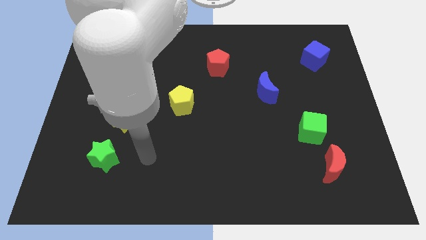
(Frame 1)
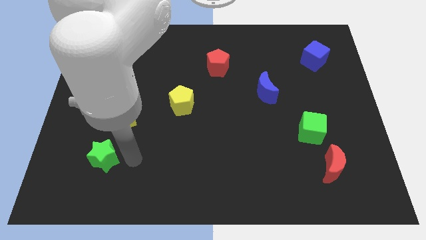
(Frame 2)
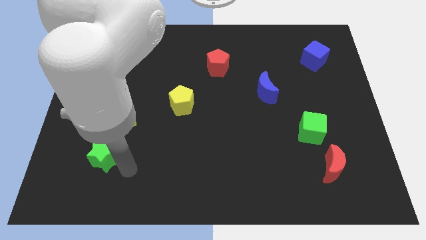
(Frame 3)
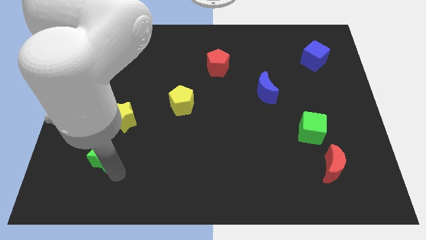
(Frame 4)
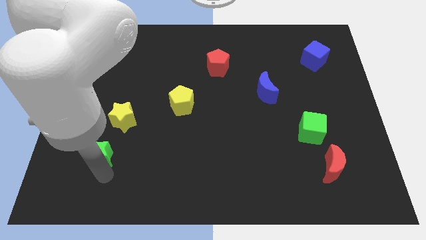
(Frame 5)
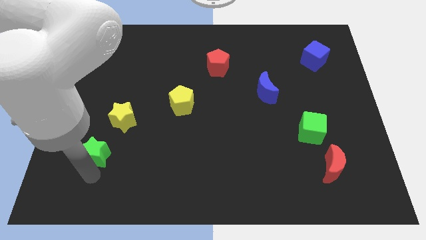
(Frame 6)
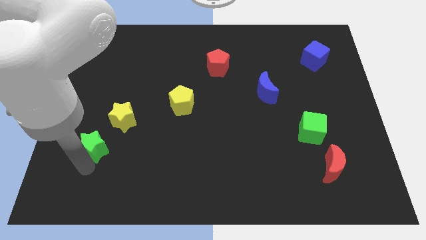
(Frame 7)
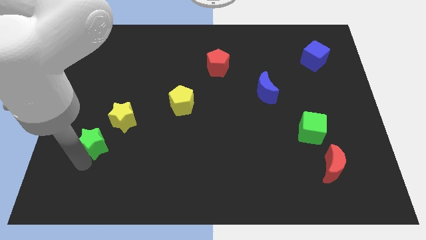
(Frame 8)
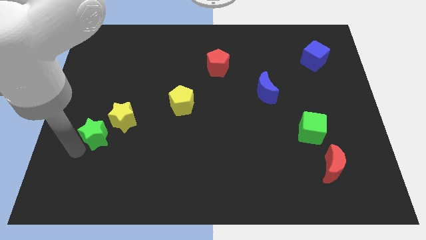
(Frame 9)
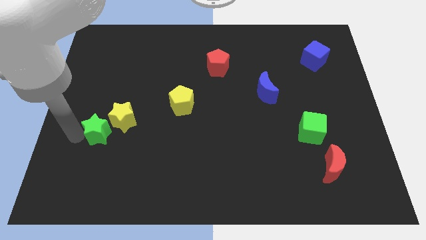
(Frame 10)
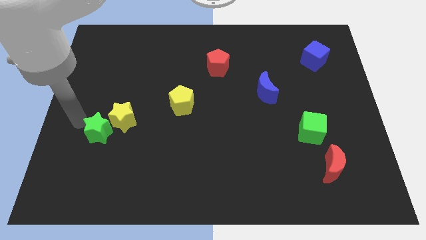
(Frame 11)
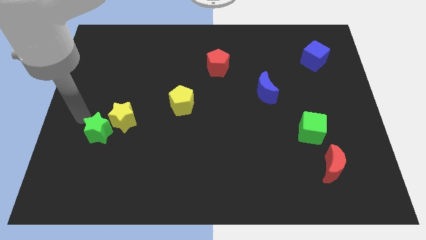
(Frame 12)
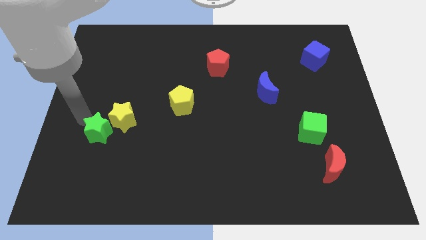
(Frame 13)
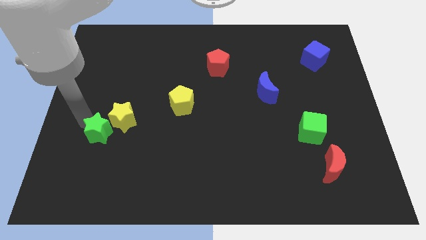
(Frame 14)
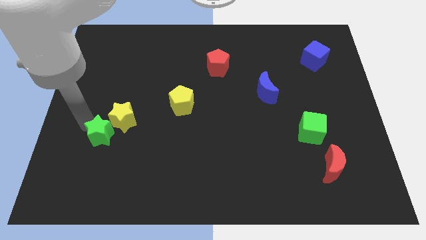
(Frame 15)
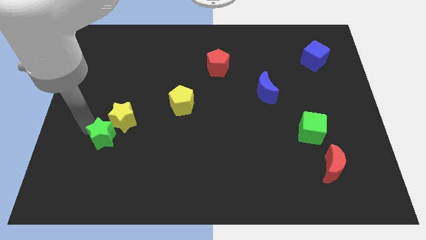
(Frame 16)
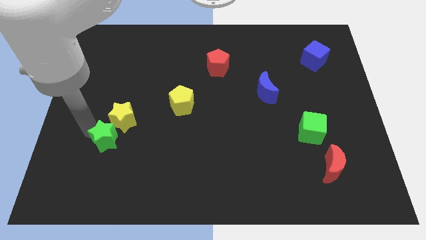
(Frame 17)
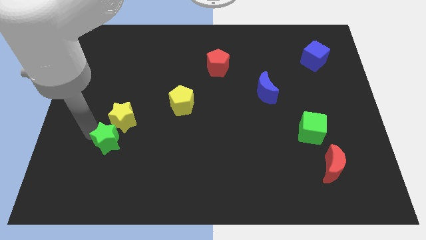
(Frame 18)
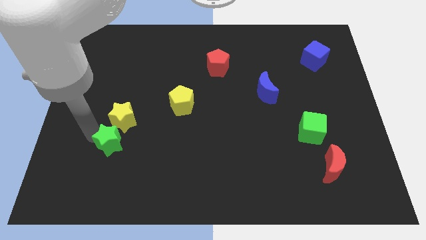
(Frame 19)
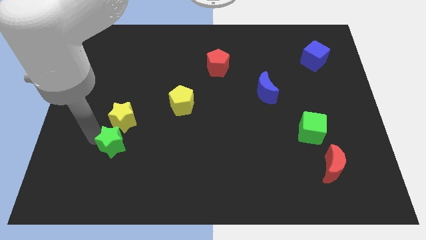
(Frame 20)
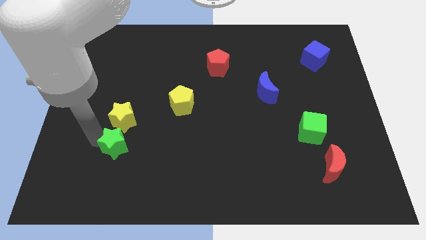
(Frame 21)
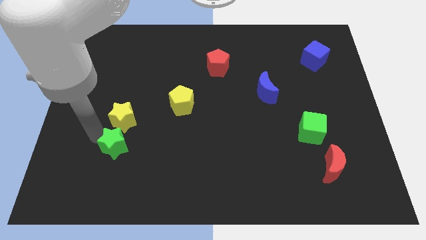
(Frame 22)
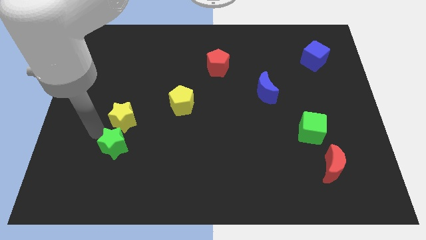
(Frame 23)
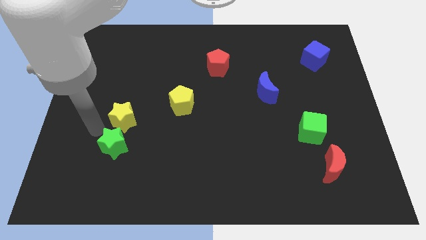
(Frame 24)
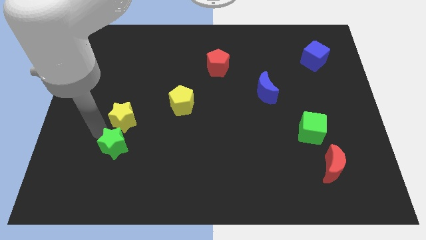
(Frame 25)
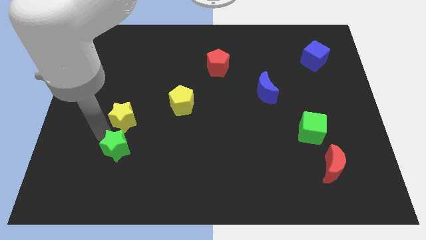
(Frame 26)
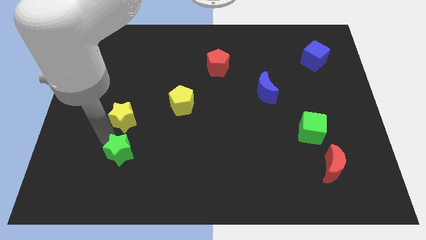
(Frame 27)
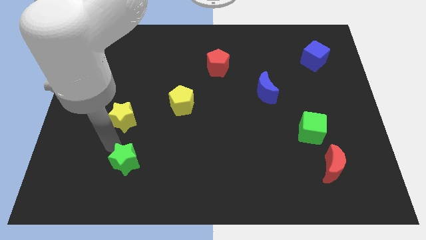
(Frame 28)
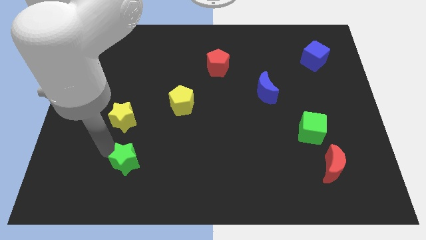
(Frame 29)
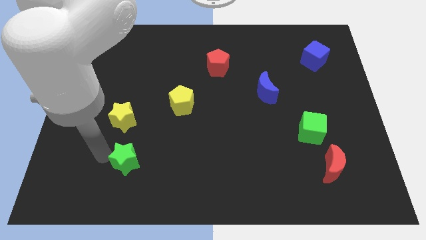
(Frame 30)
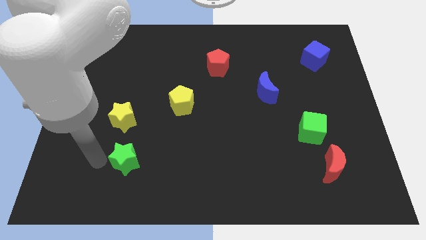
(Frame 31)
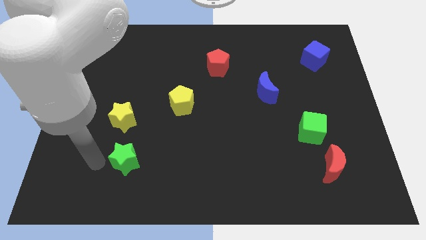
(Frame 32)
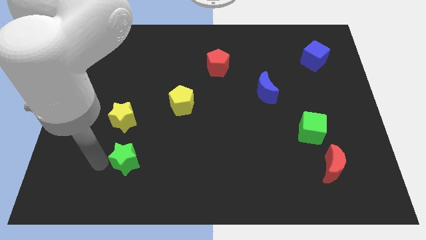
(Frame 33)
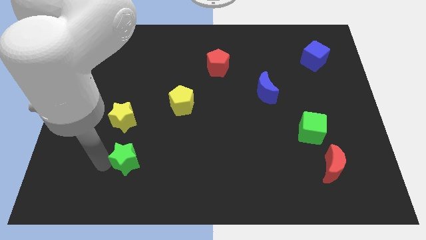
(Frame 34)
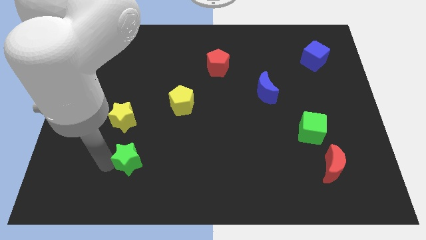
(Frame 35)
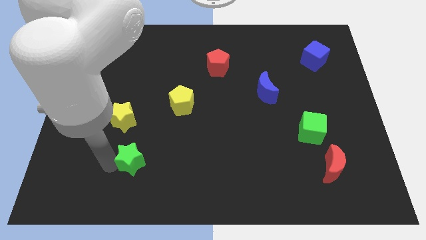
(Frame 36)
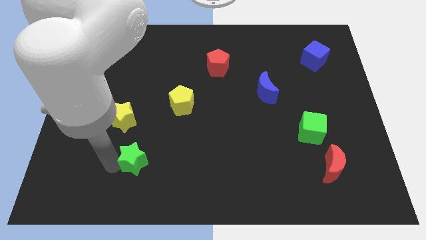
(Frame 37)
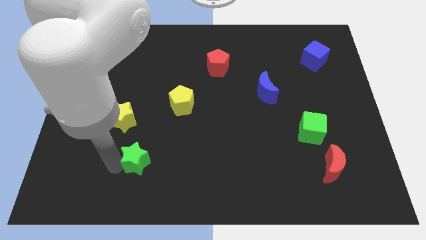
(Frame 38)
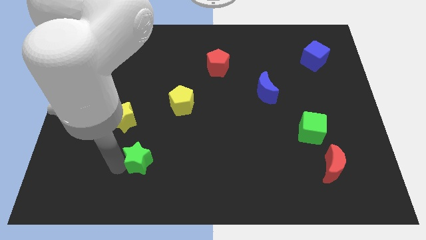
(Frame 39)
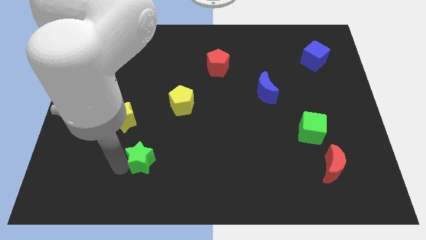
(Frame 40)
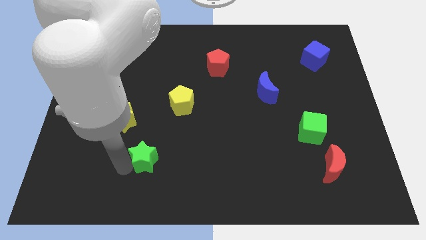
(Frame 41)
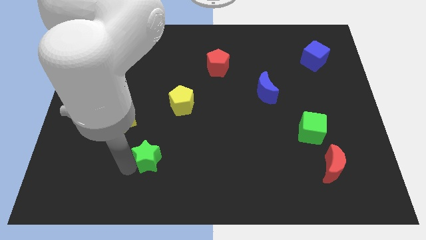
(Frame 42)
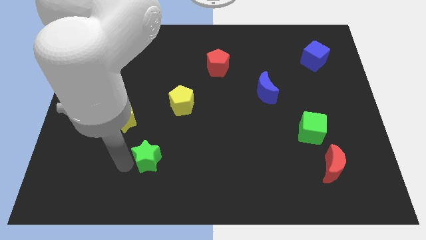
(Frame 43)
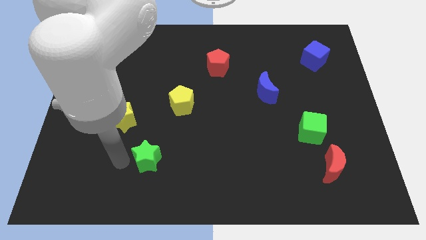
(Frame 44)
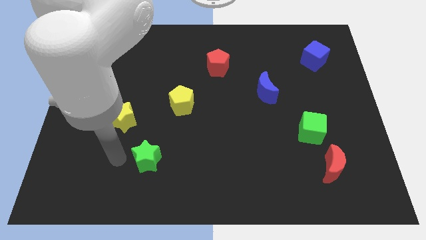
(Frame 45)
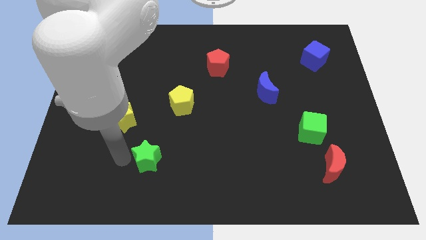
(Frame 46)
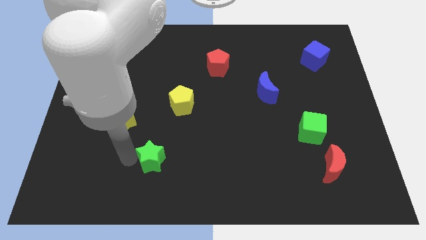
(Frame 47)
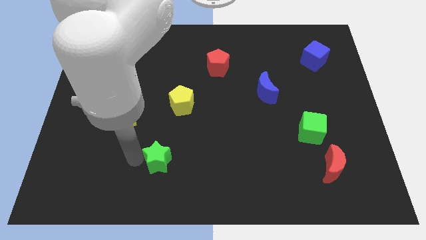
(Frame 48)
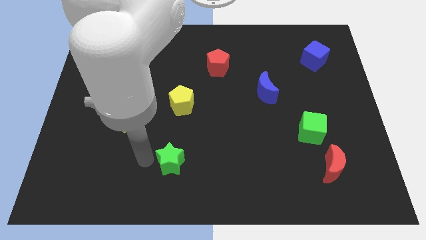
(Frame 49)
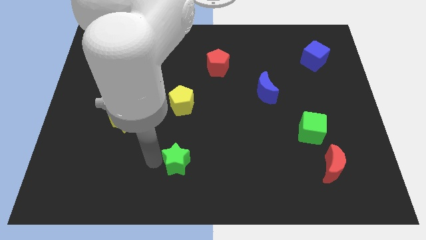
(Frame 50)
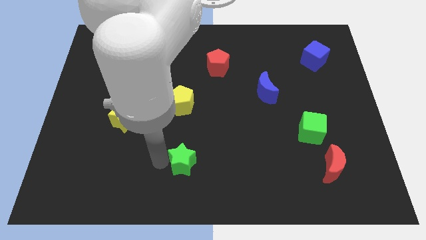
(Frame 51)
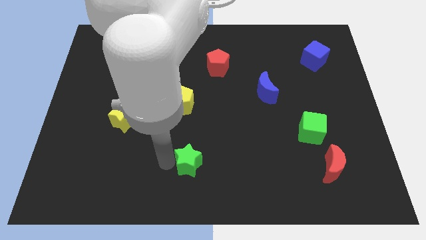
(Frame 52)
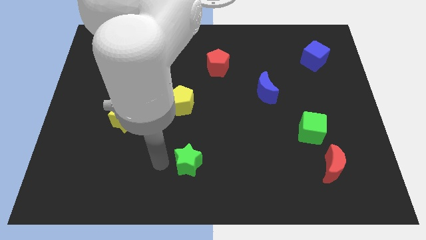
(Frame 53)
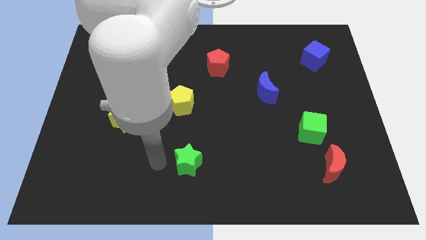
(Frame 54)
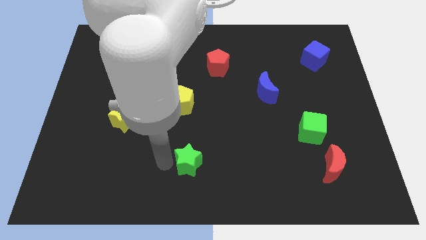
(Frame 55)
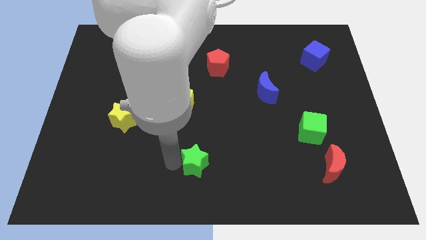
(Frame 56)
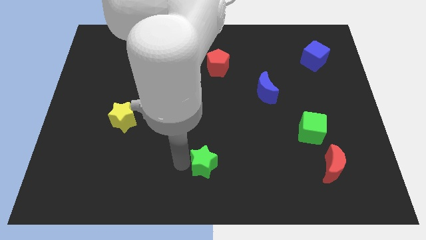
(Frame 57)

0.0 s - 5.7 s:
push the green star to the right

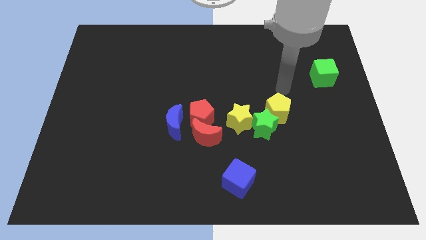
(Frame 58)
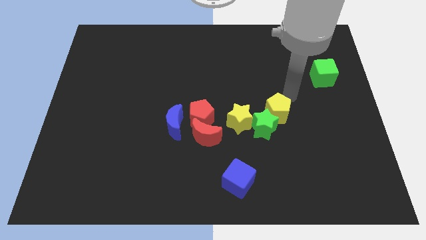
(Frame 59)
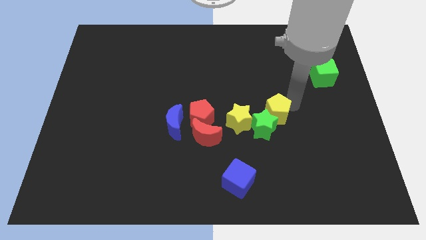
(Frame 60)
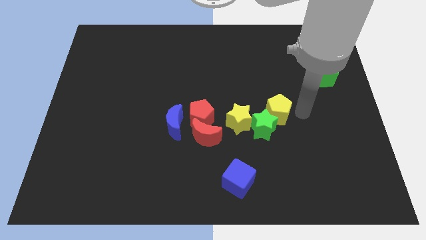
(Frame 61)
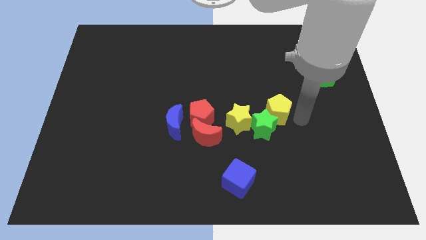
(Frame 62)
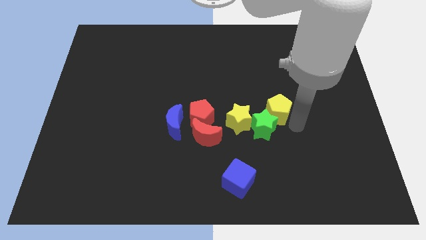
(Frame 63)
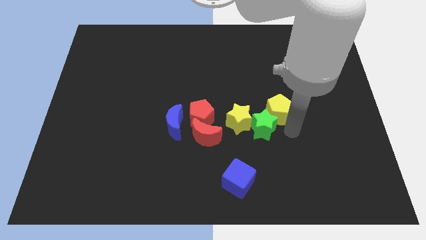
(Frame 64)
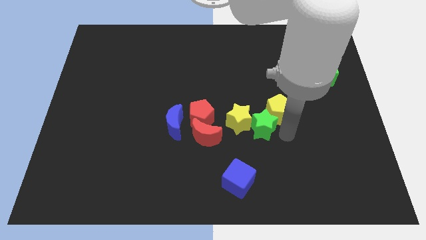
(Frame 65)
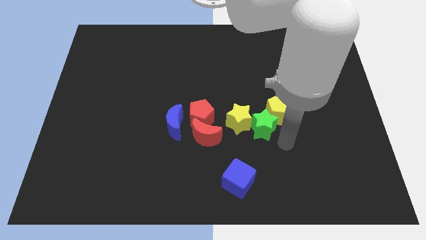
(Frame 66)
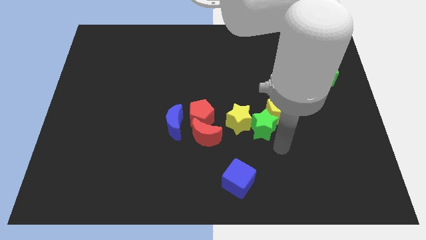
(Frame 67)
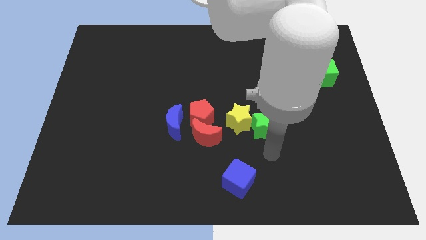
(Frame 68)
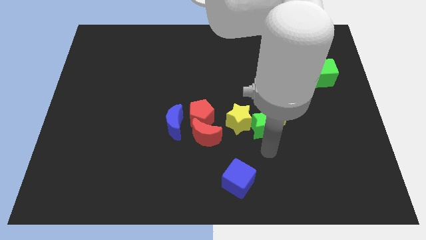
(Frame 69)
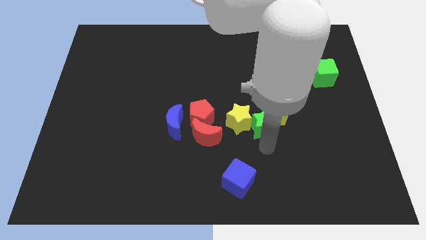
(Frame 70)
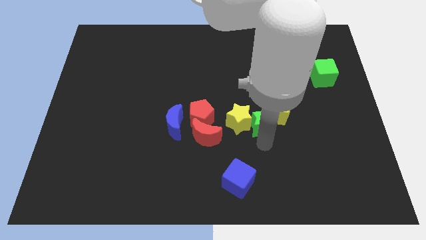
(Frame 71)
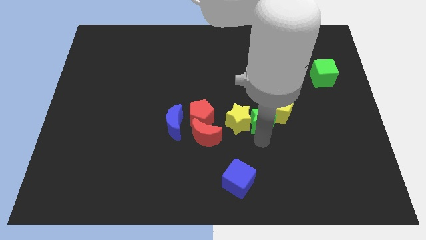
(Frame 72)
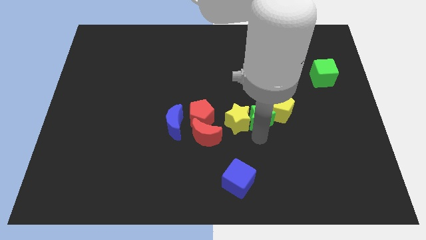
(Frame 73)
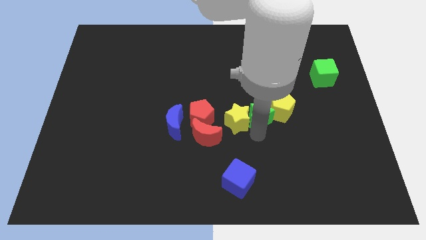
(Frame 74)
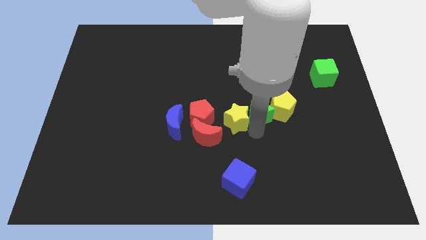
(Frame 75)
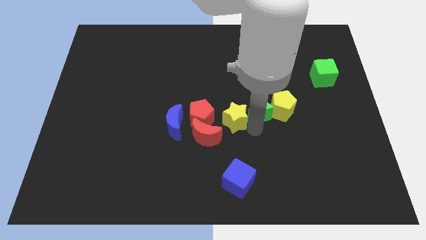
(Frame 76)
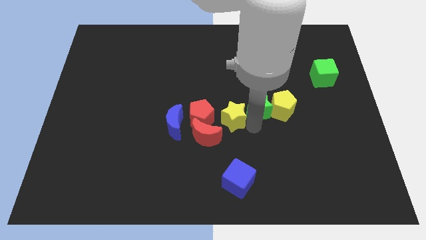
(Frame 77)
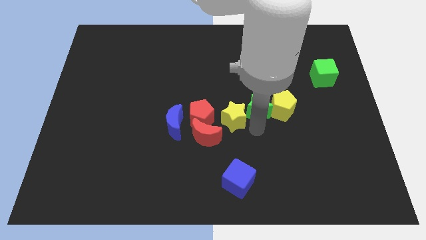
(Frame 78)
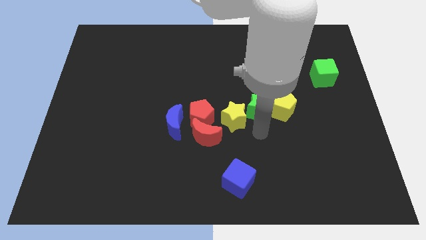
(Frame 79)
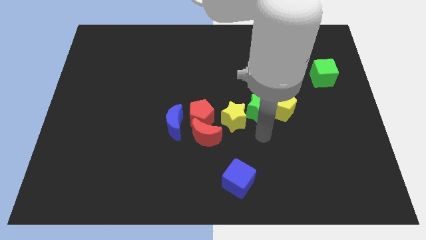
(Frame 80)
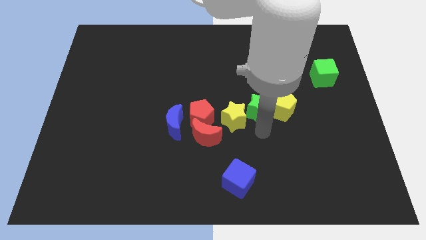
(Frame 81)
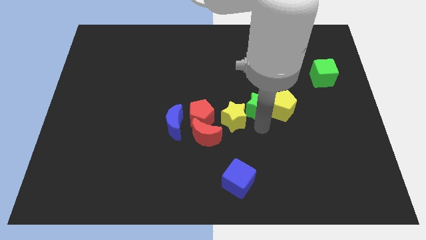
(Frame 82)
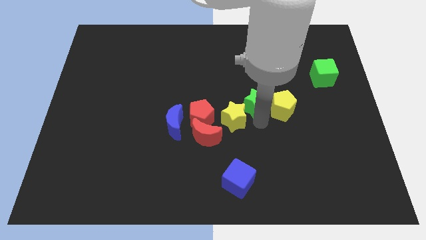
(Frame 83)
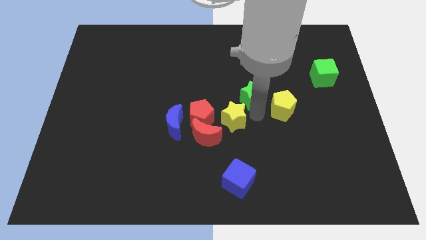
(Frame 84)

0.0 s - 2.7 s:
move the green star upwards a bit
